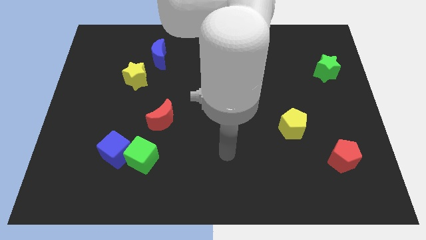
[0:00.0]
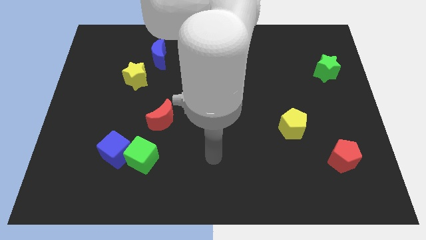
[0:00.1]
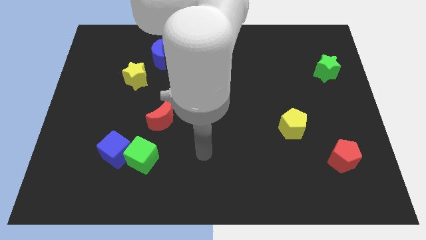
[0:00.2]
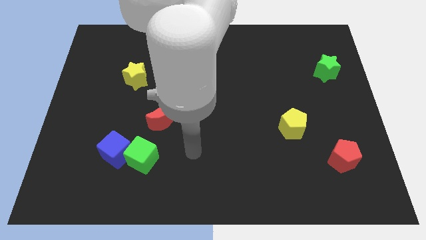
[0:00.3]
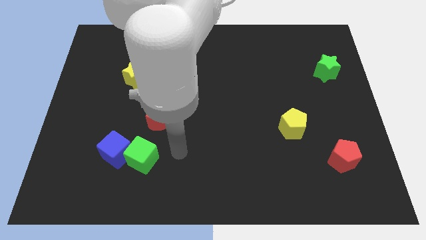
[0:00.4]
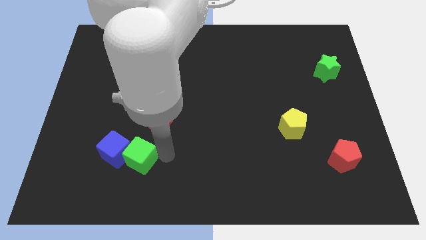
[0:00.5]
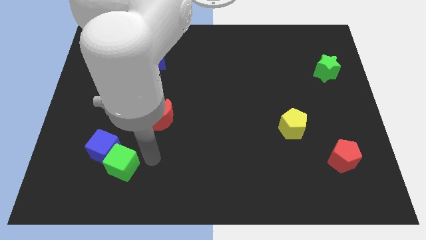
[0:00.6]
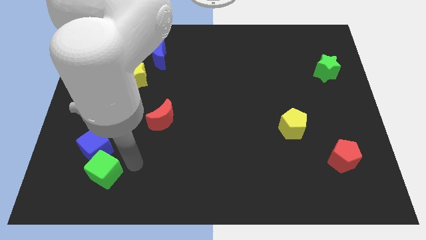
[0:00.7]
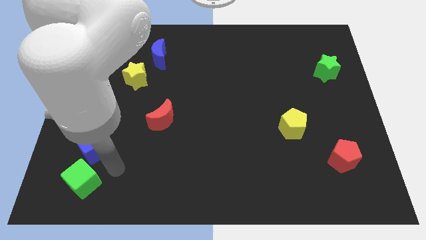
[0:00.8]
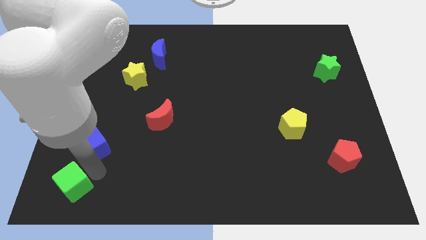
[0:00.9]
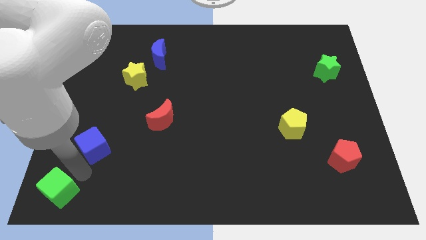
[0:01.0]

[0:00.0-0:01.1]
move the blue cube away from the green cube

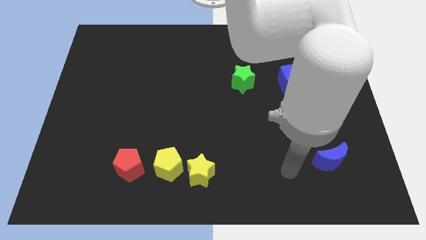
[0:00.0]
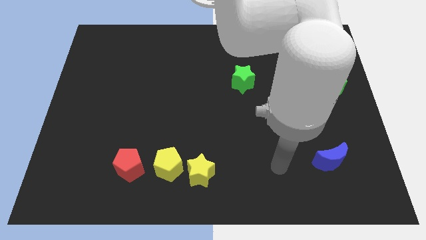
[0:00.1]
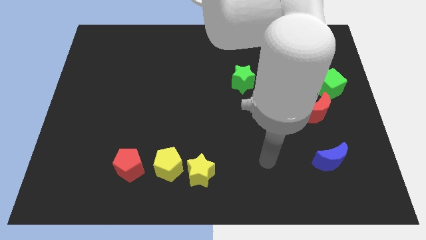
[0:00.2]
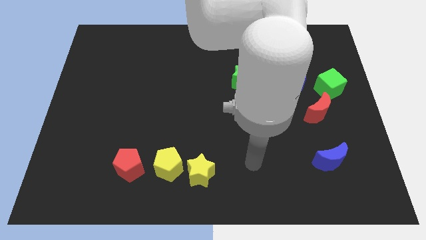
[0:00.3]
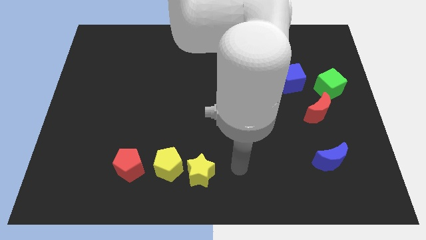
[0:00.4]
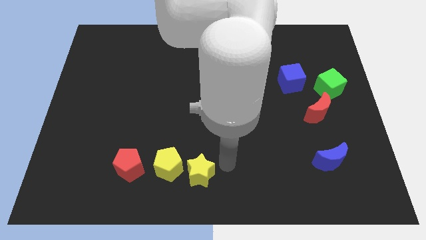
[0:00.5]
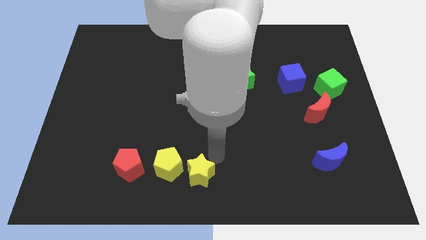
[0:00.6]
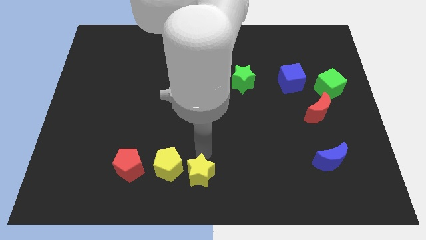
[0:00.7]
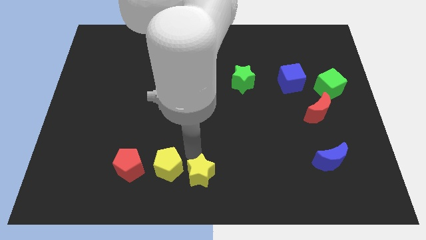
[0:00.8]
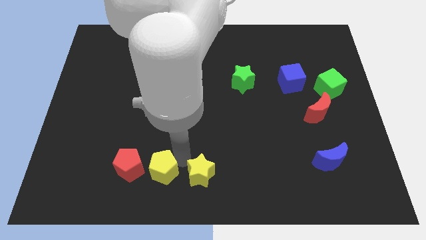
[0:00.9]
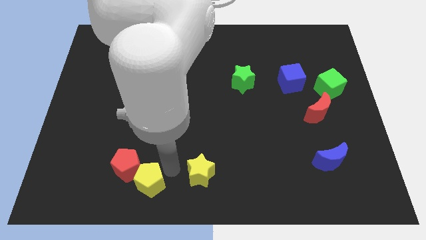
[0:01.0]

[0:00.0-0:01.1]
separate the yellow star from the yellow pentagon

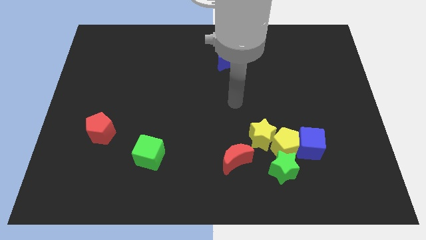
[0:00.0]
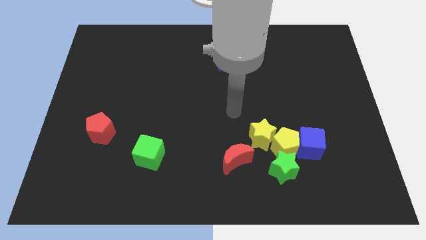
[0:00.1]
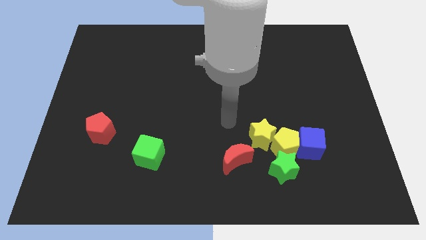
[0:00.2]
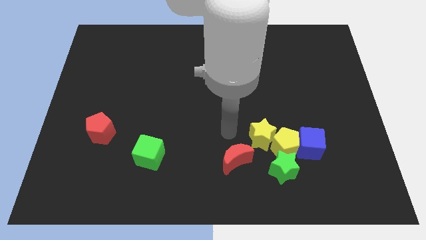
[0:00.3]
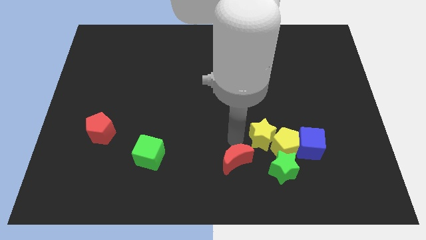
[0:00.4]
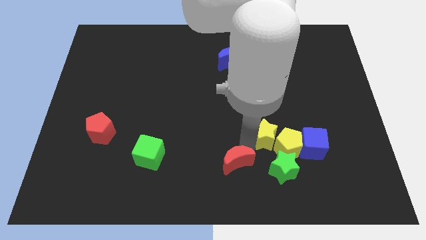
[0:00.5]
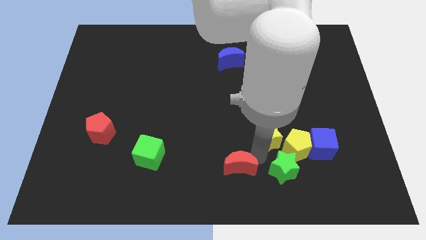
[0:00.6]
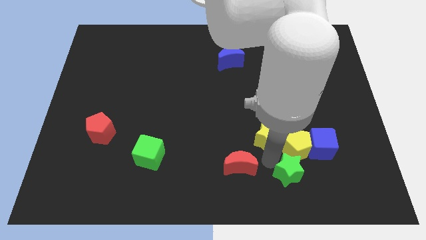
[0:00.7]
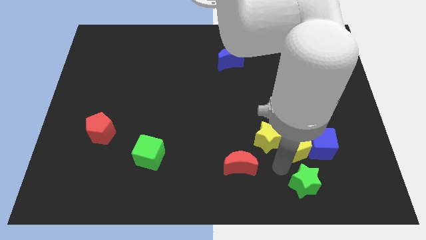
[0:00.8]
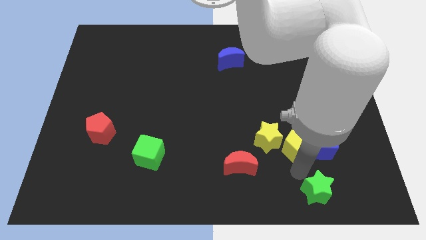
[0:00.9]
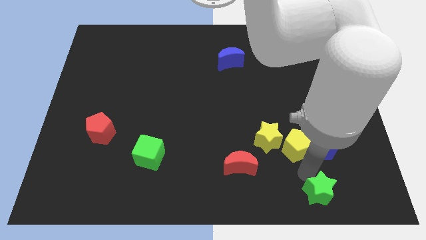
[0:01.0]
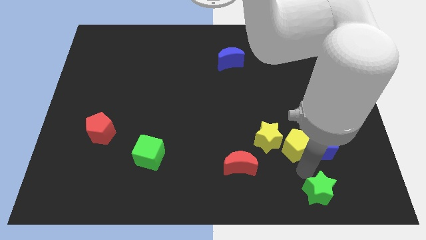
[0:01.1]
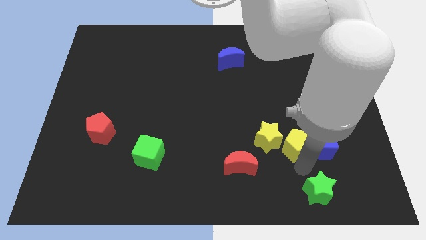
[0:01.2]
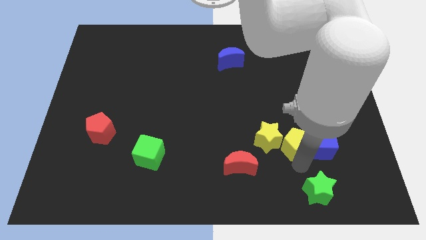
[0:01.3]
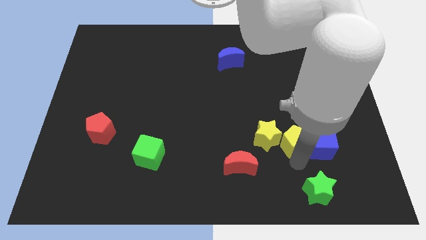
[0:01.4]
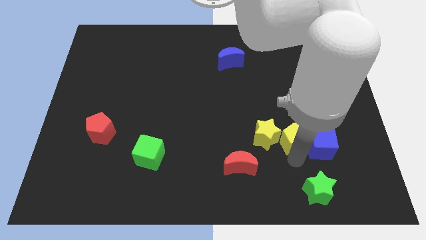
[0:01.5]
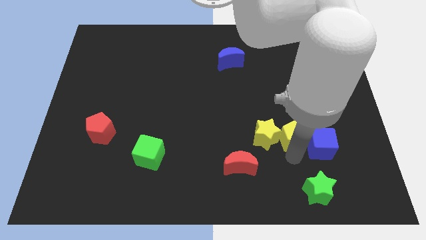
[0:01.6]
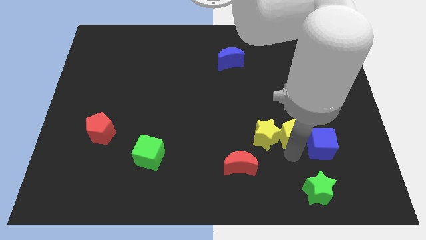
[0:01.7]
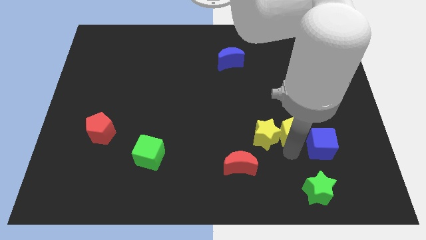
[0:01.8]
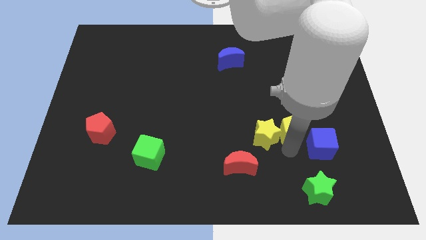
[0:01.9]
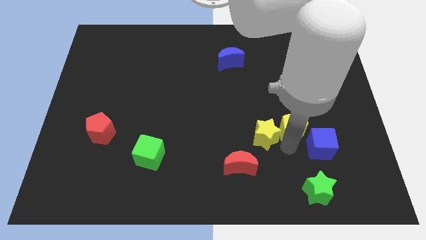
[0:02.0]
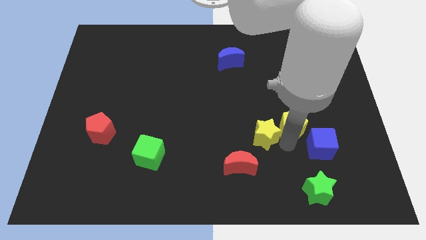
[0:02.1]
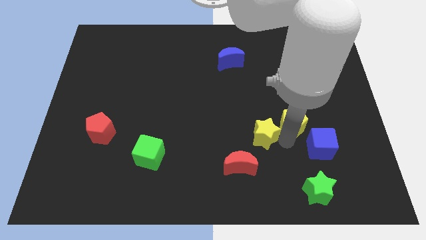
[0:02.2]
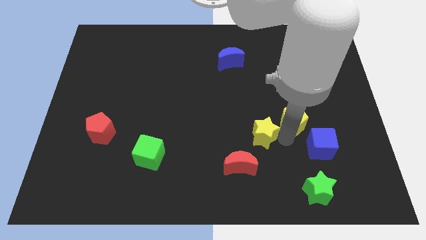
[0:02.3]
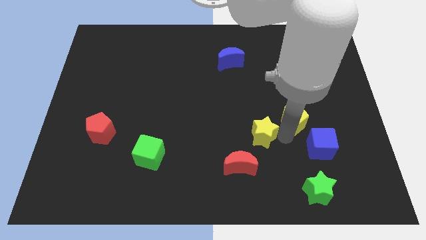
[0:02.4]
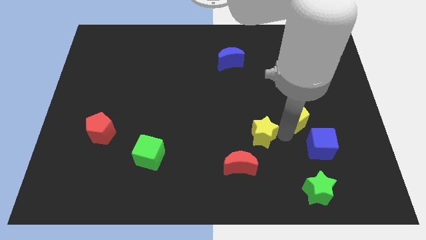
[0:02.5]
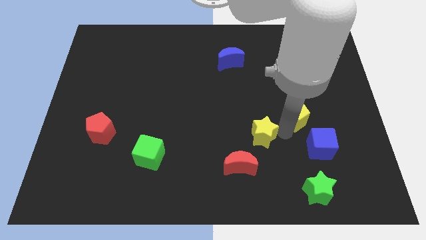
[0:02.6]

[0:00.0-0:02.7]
separate the yellow pentagon from the group

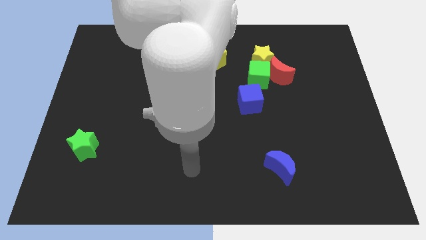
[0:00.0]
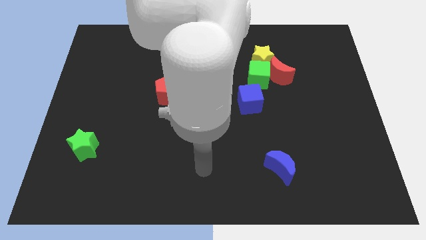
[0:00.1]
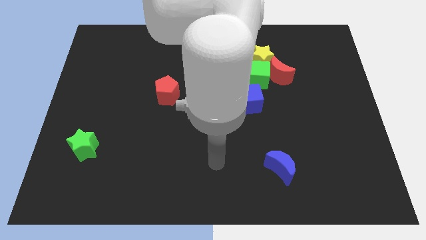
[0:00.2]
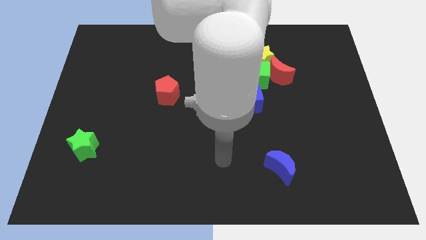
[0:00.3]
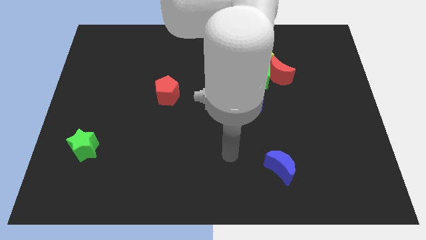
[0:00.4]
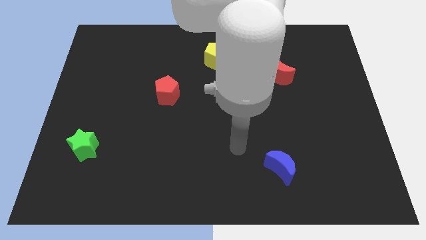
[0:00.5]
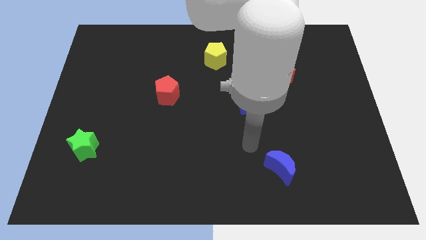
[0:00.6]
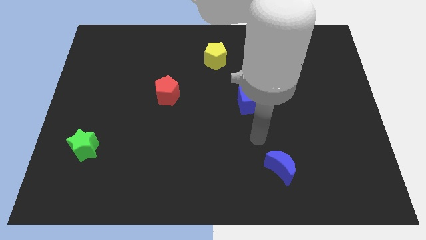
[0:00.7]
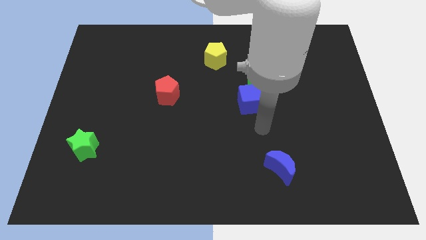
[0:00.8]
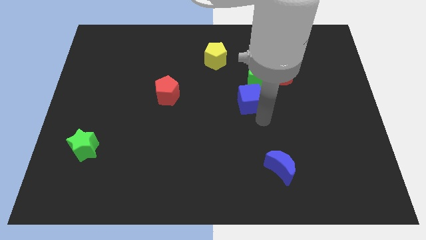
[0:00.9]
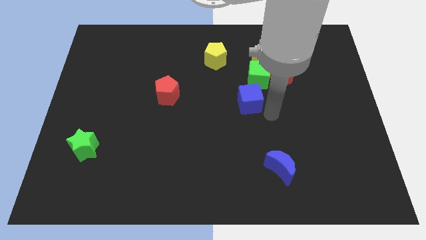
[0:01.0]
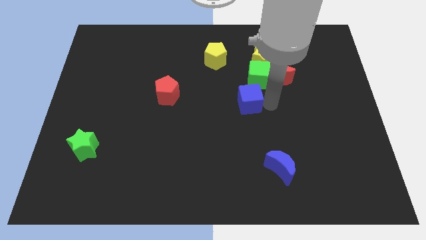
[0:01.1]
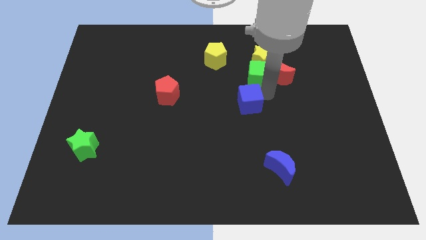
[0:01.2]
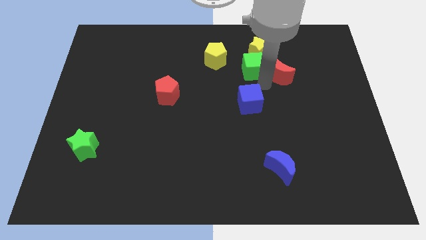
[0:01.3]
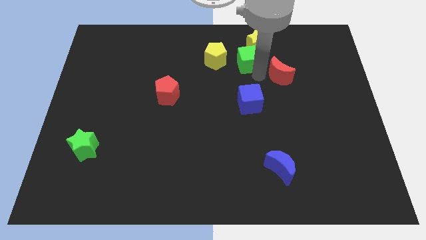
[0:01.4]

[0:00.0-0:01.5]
move the red moon away from the green cube and yellow star

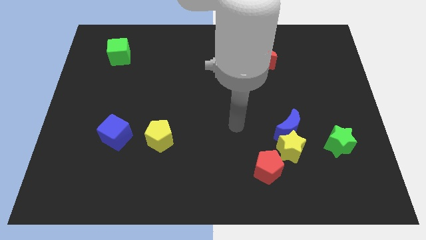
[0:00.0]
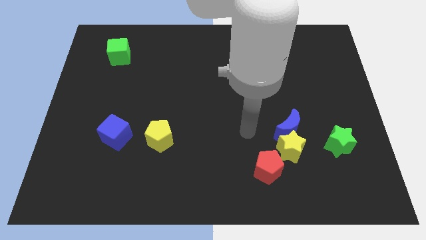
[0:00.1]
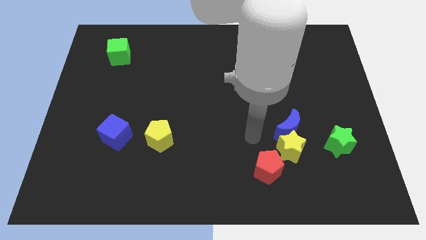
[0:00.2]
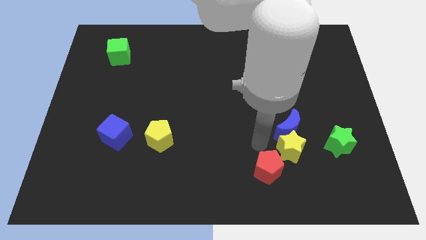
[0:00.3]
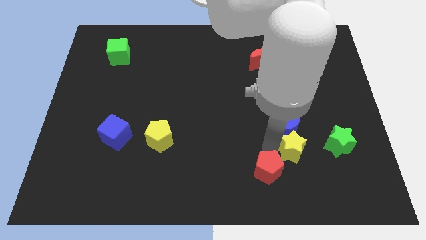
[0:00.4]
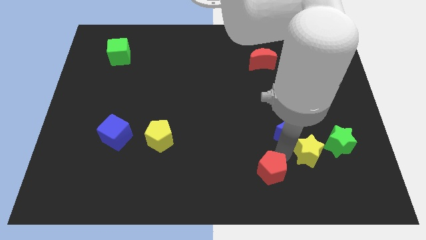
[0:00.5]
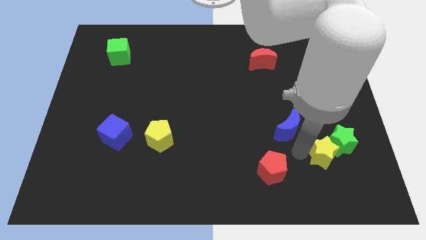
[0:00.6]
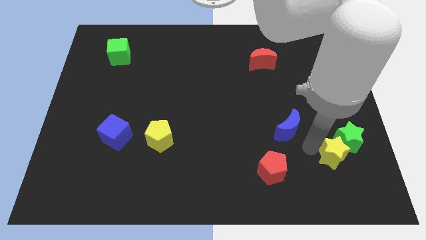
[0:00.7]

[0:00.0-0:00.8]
move the blue moon away from the yellow star

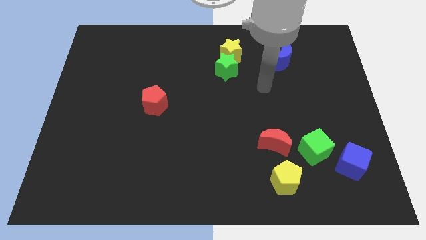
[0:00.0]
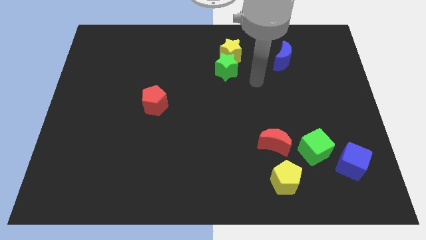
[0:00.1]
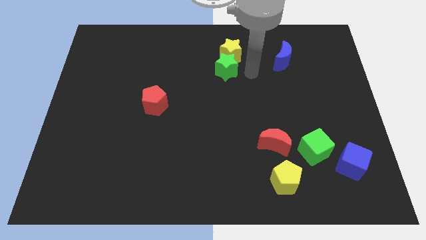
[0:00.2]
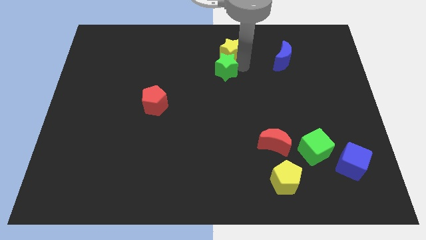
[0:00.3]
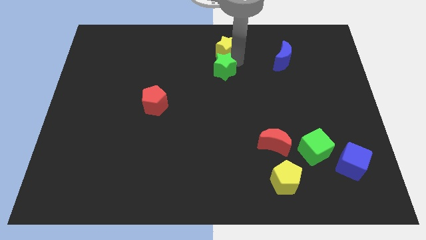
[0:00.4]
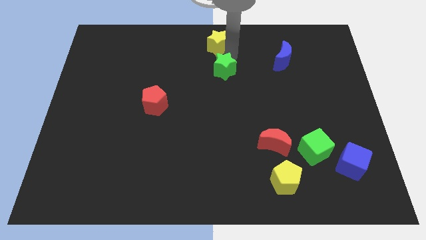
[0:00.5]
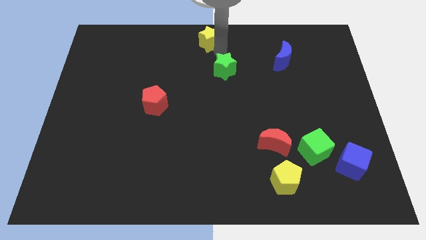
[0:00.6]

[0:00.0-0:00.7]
move the green star away from the yellow star

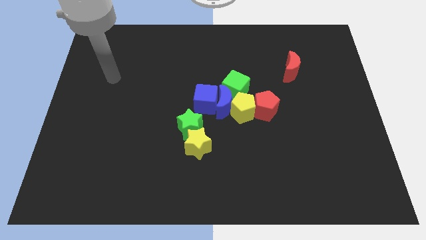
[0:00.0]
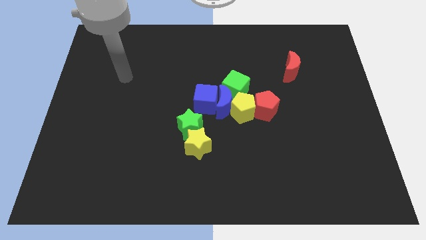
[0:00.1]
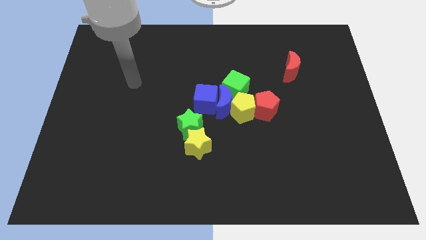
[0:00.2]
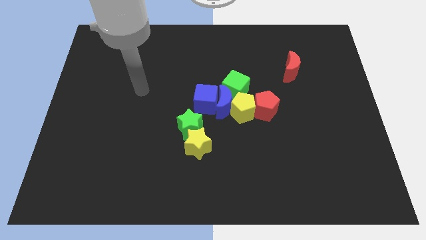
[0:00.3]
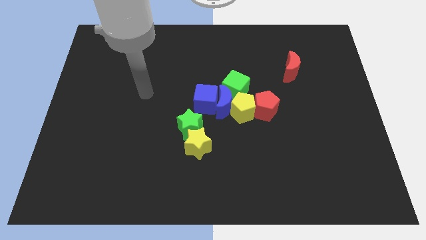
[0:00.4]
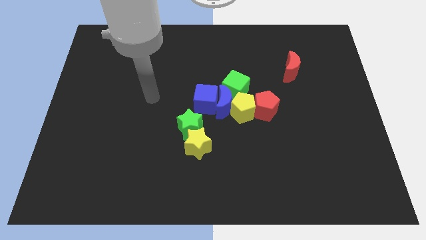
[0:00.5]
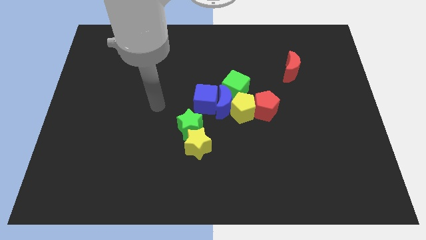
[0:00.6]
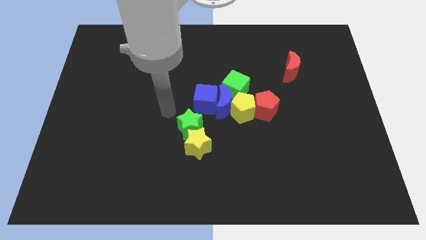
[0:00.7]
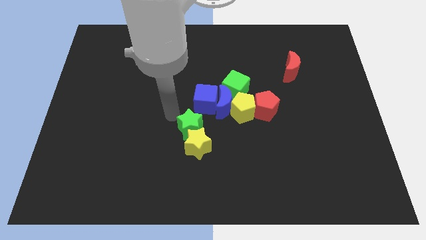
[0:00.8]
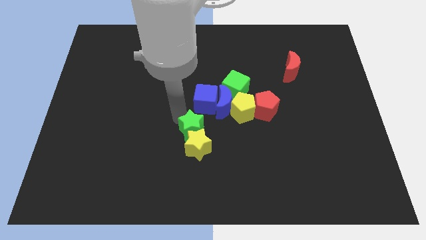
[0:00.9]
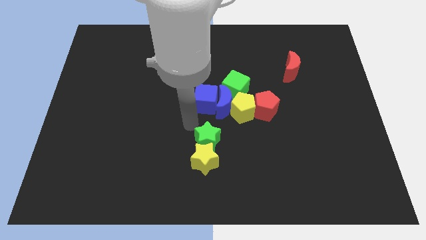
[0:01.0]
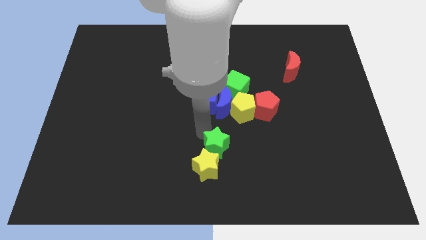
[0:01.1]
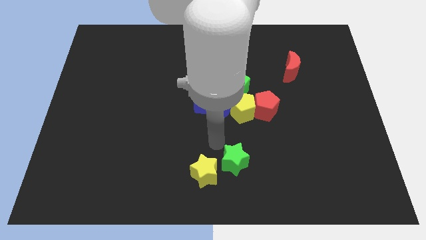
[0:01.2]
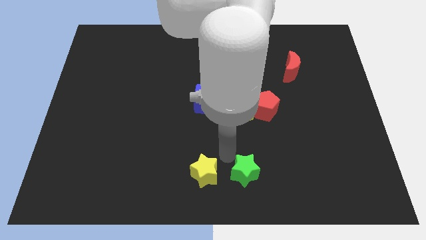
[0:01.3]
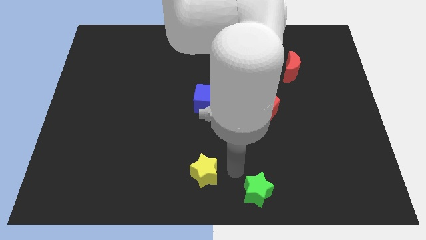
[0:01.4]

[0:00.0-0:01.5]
pull the yellow star apart from the green star
